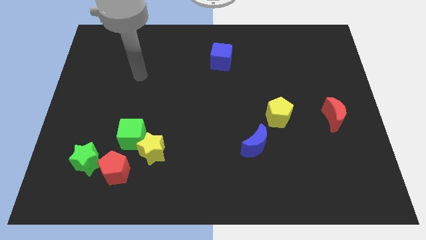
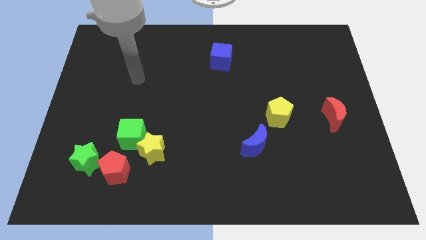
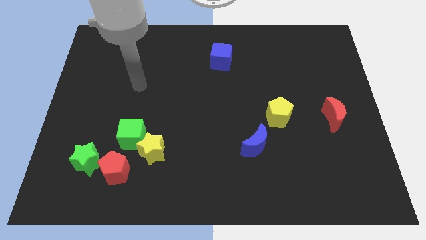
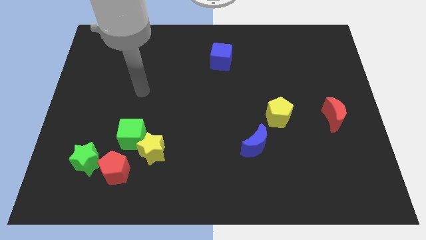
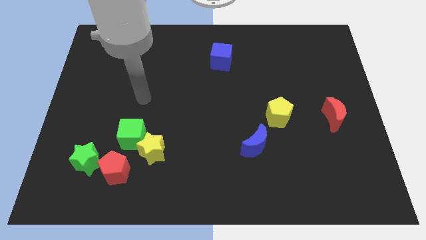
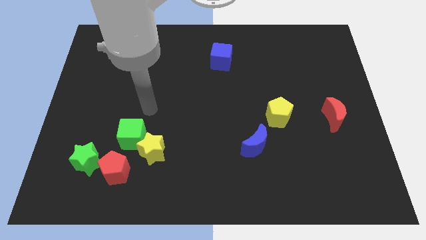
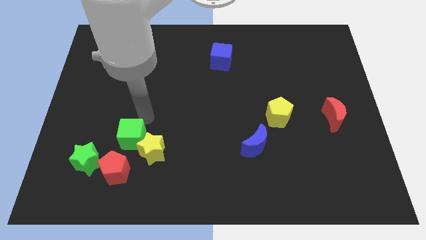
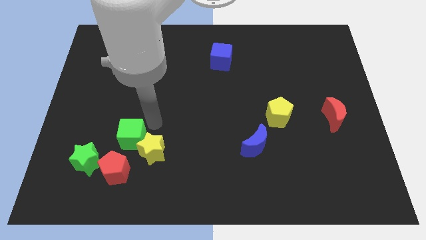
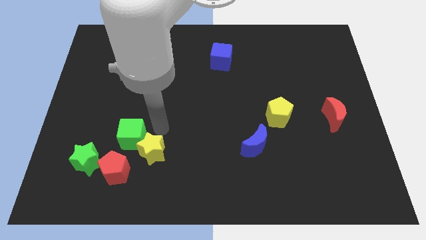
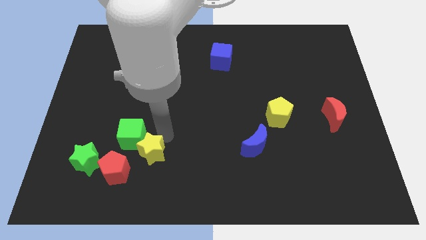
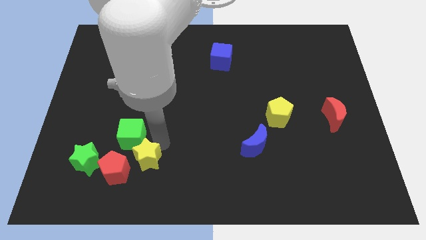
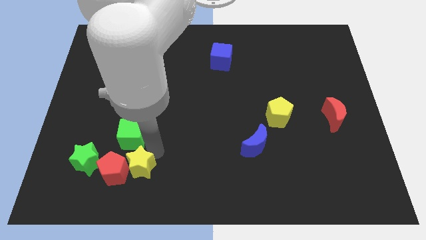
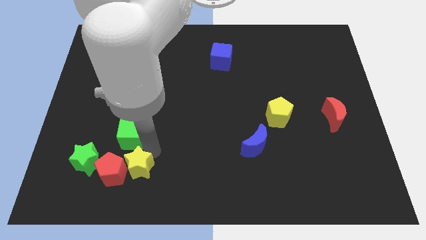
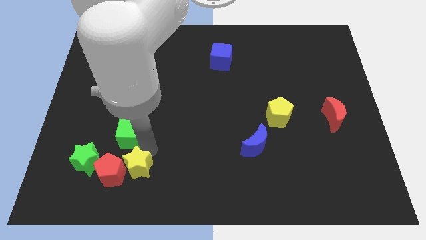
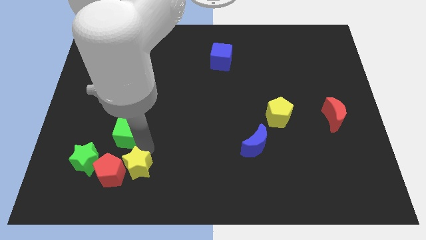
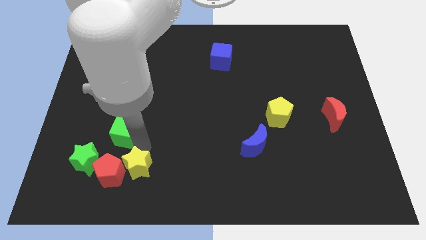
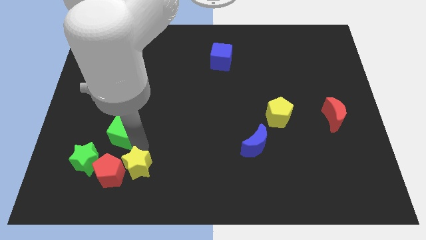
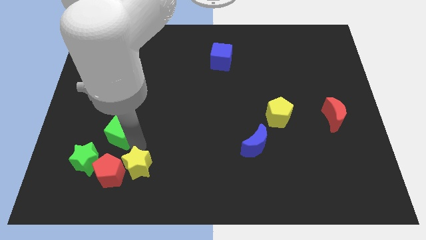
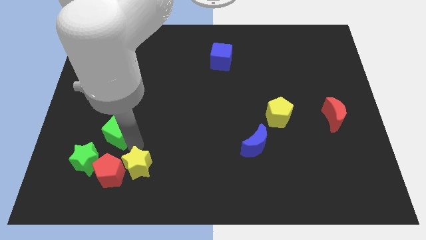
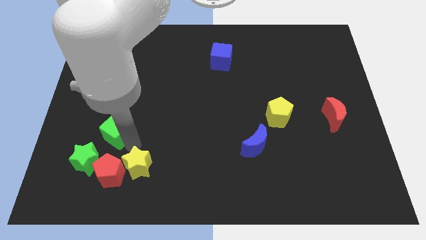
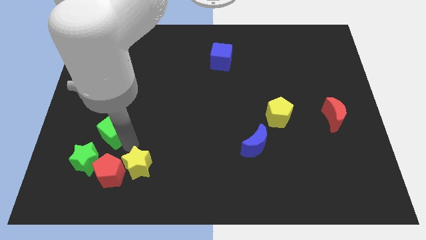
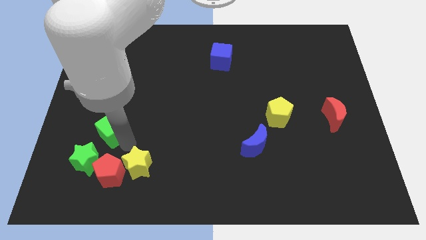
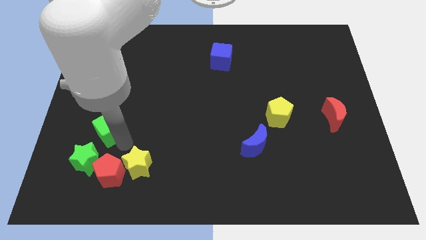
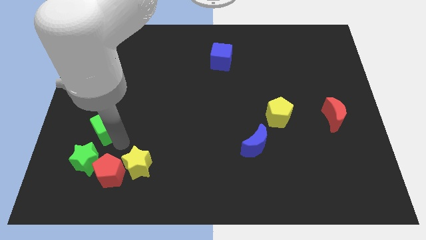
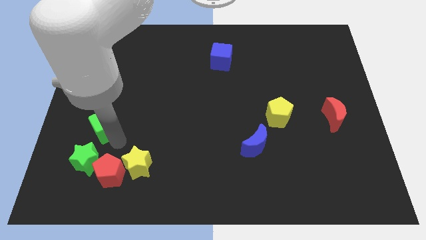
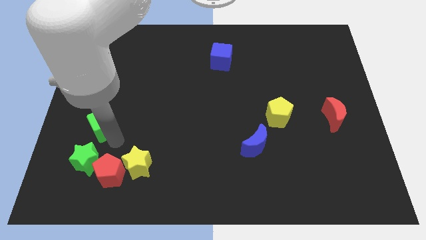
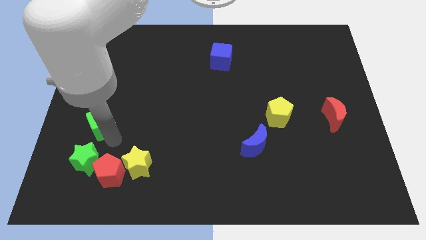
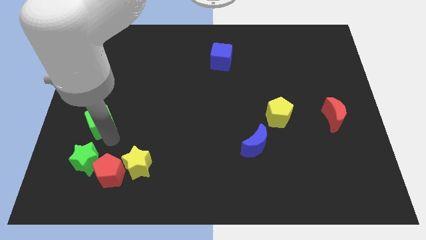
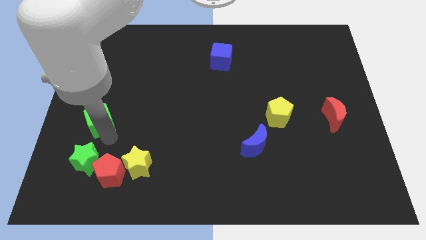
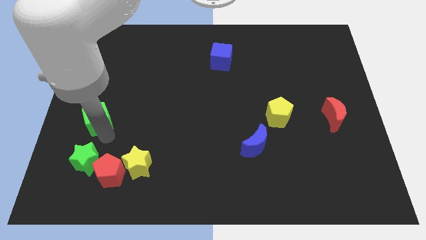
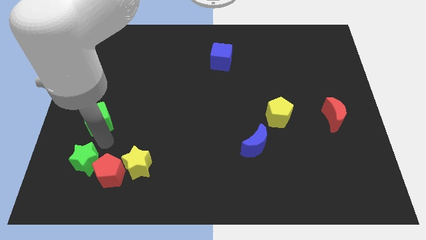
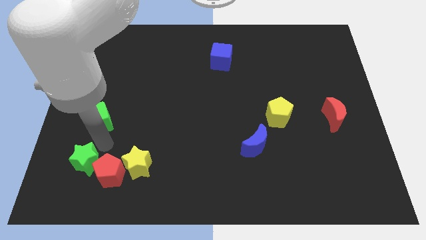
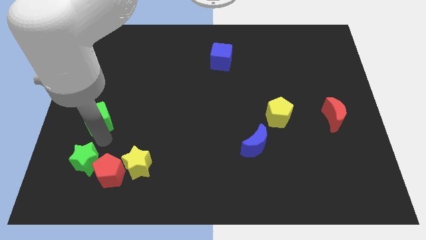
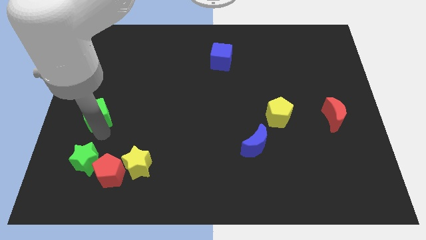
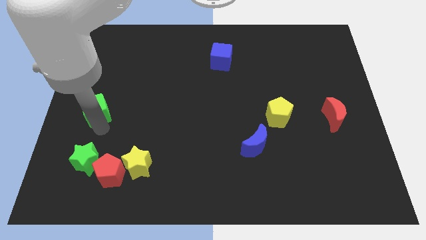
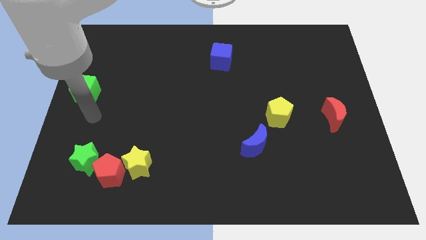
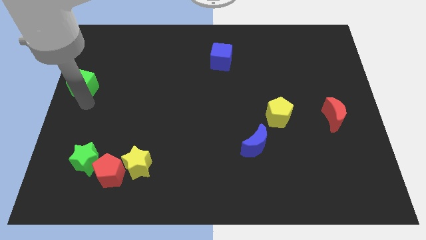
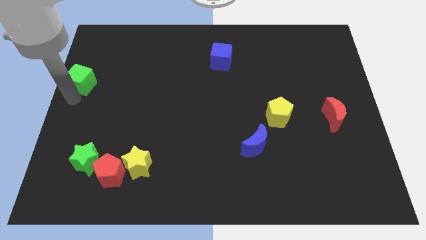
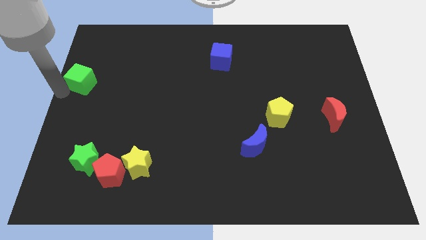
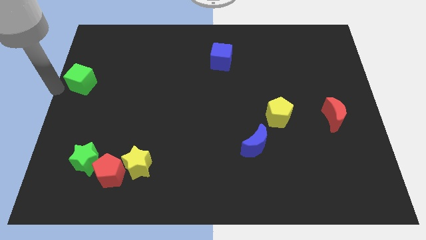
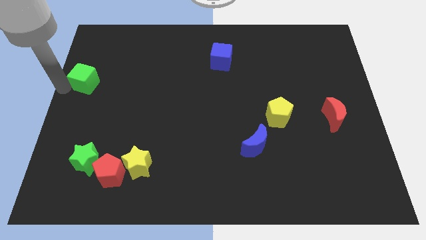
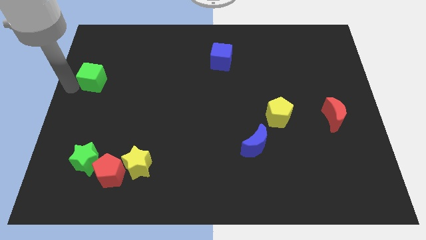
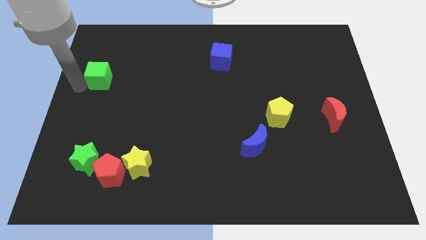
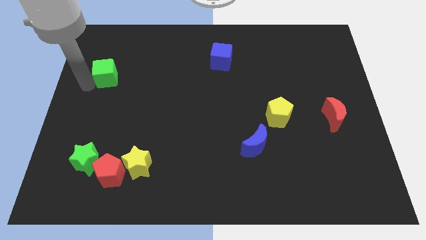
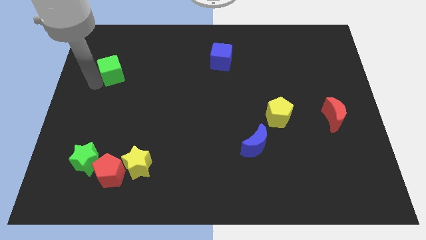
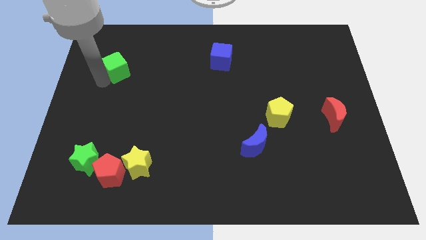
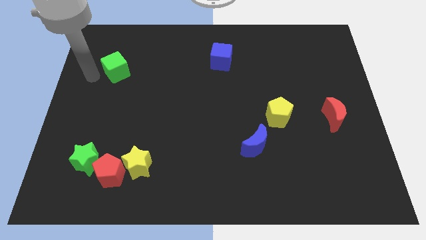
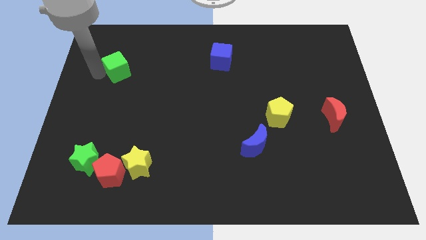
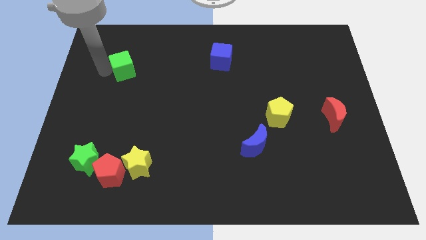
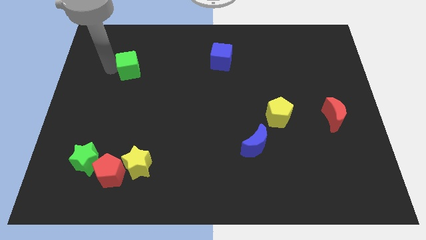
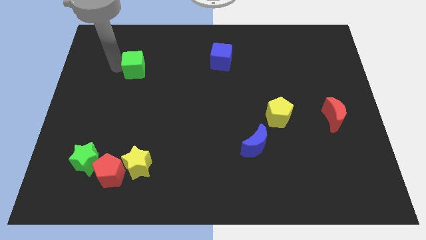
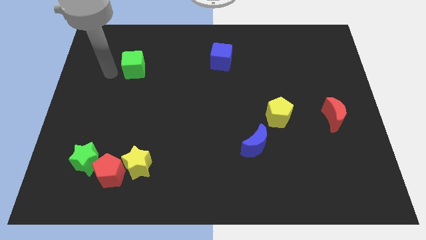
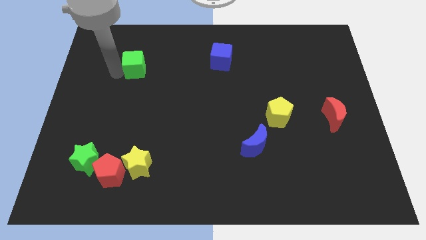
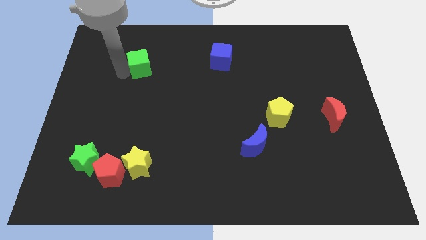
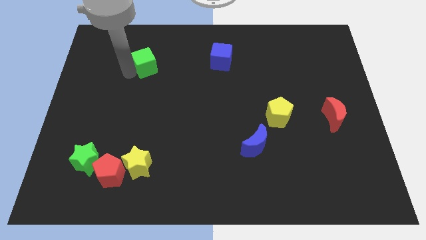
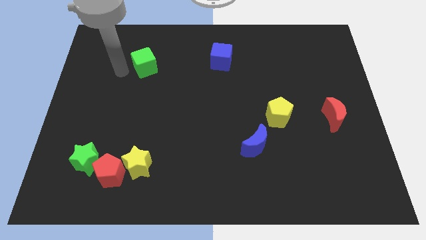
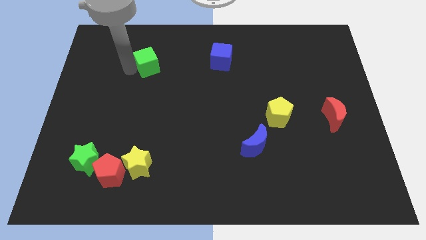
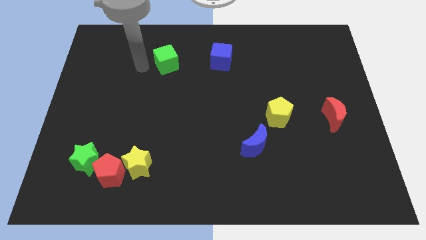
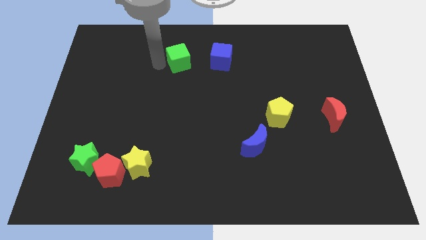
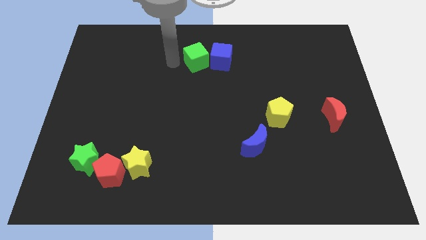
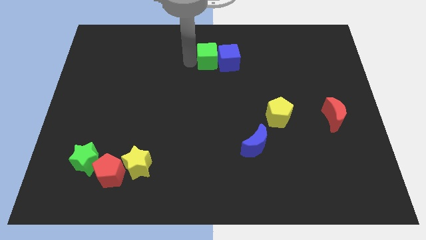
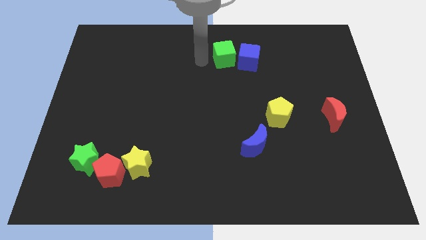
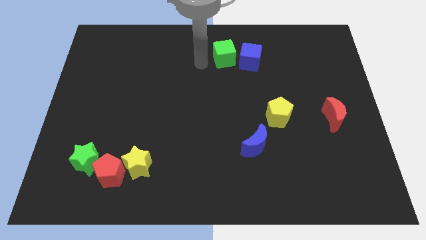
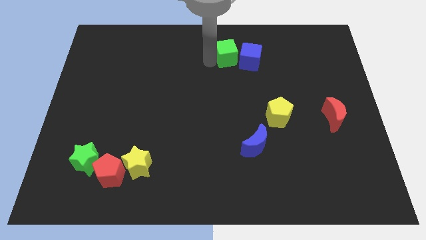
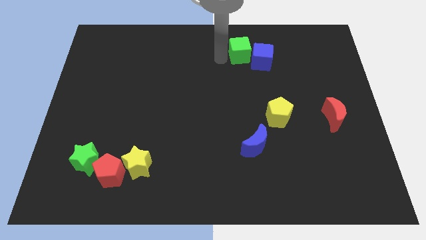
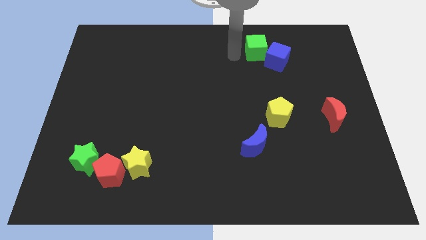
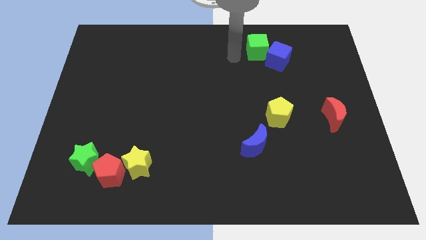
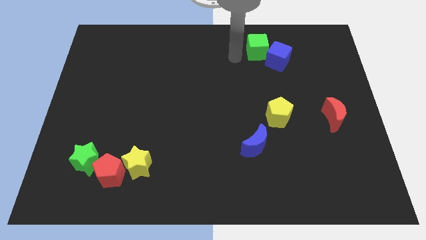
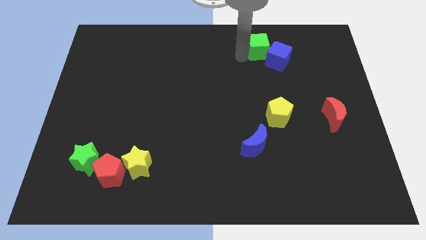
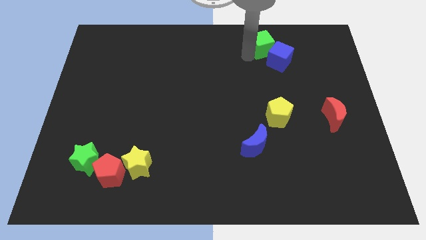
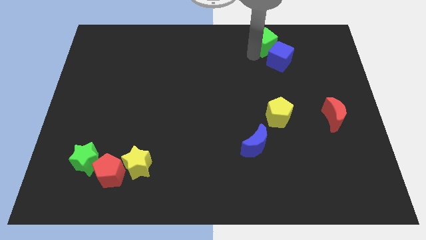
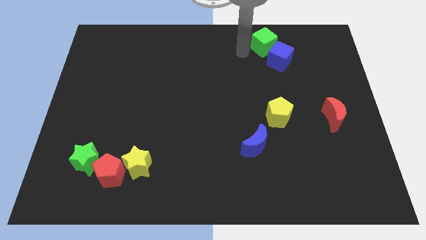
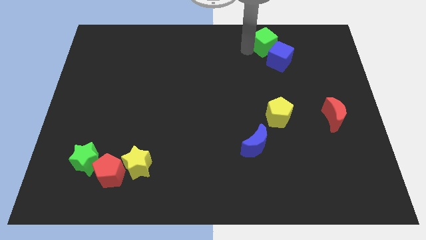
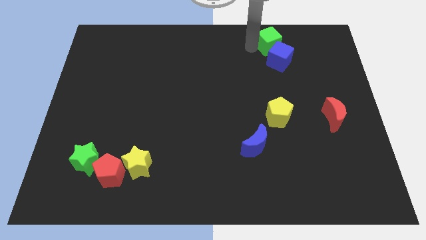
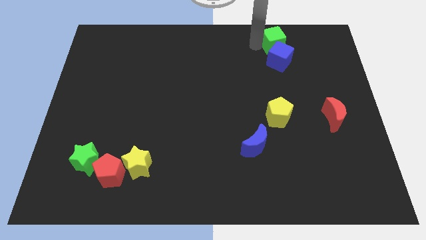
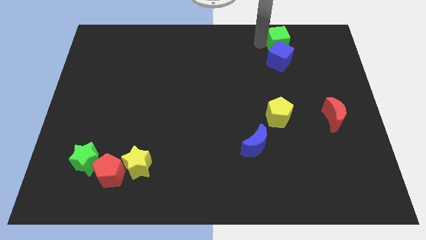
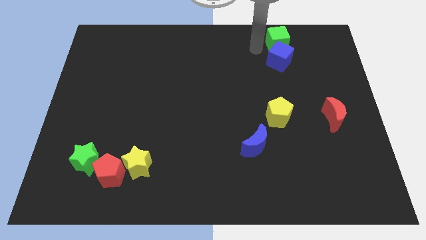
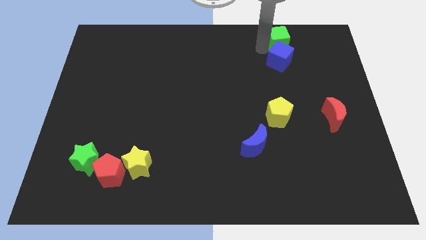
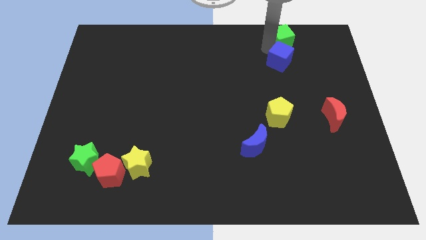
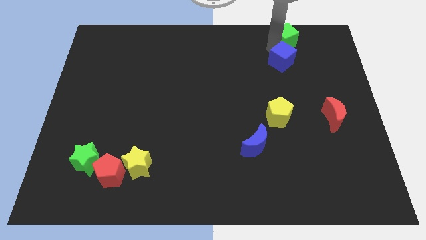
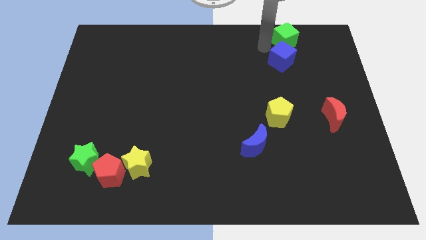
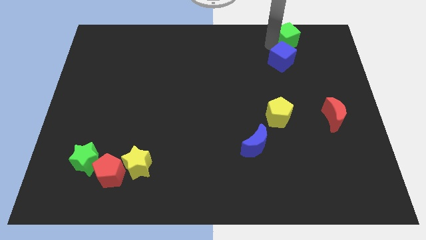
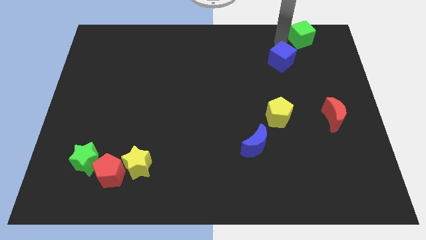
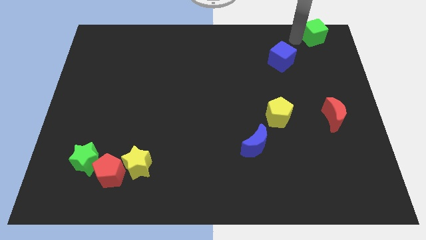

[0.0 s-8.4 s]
move the green cube to the top right
